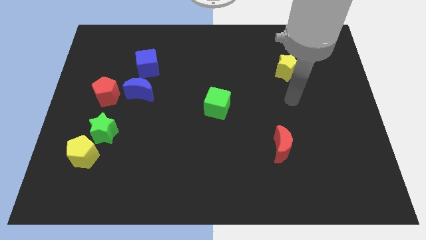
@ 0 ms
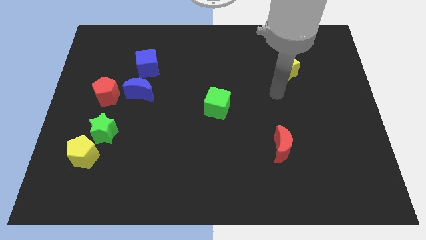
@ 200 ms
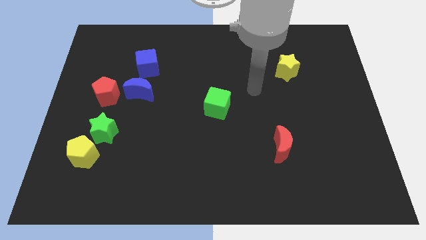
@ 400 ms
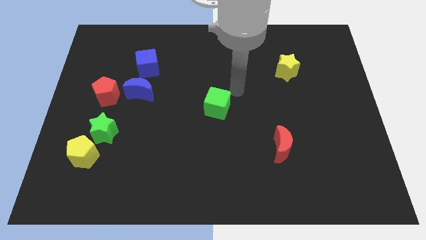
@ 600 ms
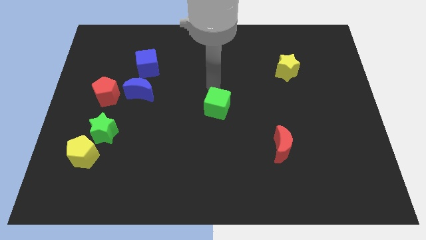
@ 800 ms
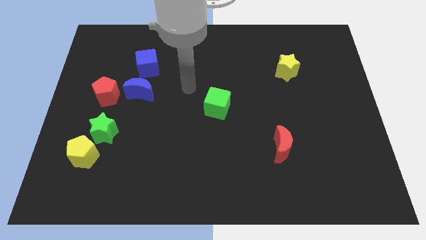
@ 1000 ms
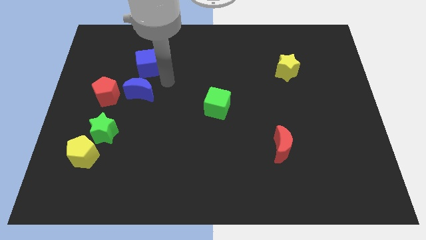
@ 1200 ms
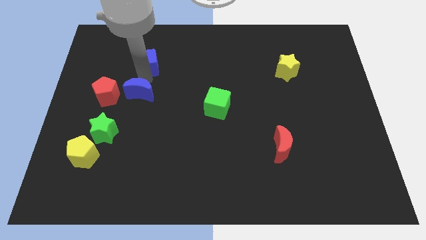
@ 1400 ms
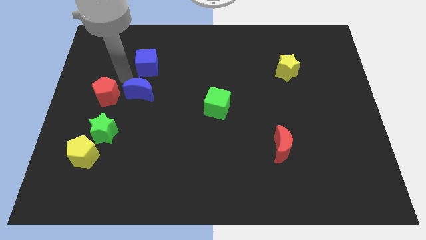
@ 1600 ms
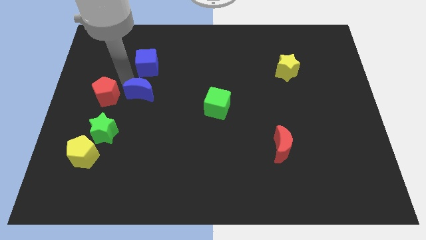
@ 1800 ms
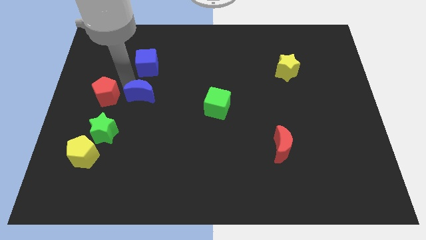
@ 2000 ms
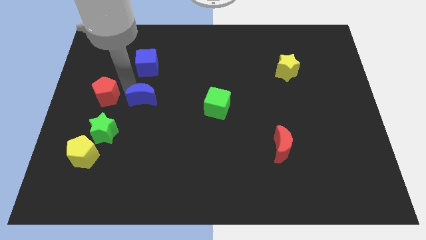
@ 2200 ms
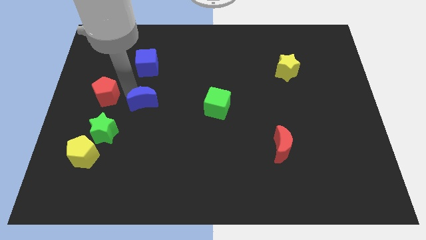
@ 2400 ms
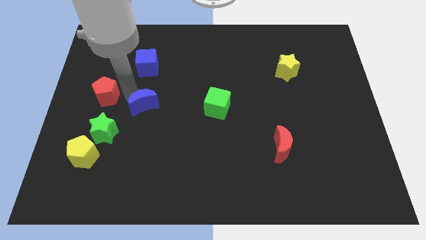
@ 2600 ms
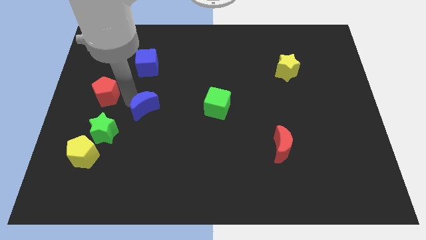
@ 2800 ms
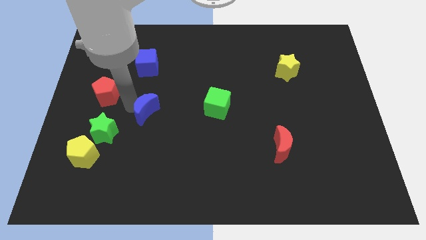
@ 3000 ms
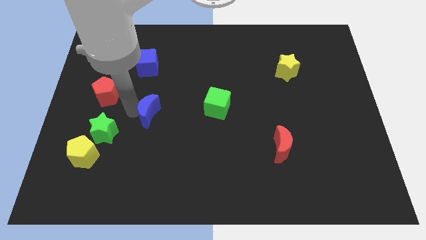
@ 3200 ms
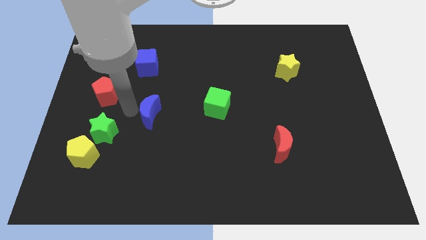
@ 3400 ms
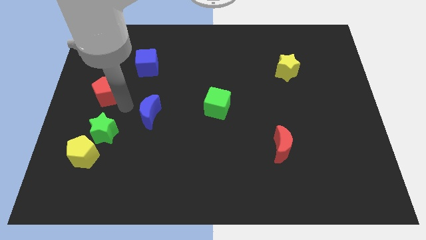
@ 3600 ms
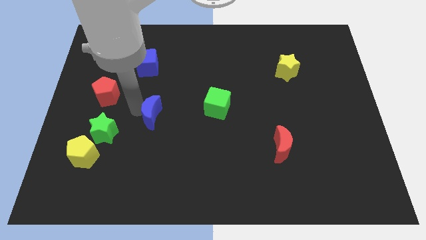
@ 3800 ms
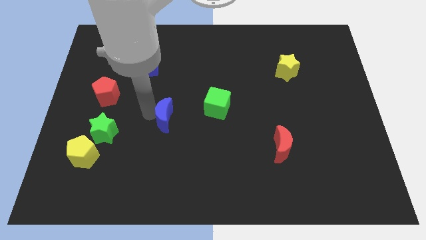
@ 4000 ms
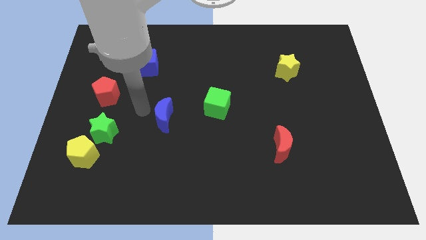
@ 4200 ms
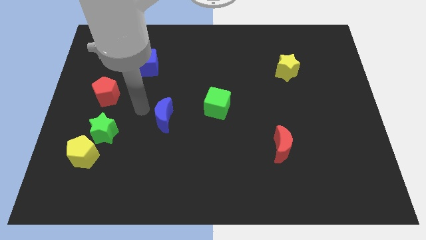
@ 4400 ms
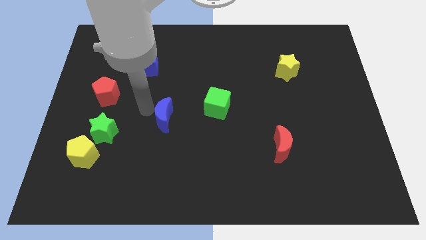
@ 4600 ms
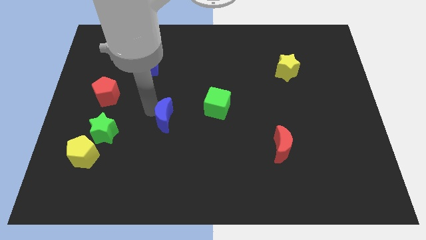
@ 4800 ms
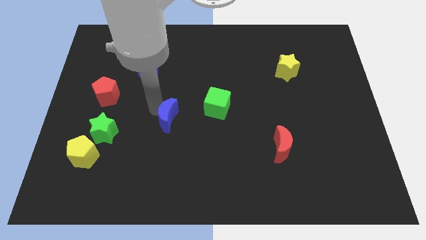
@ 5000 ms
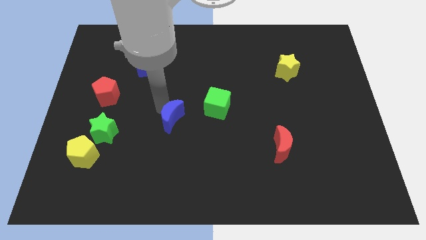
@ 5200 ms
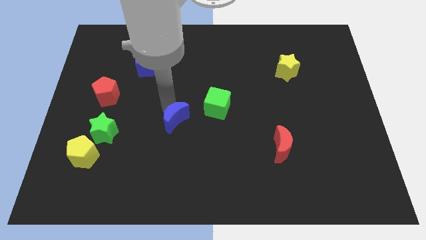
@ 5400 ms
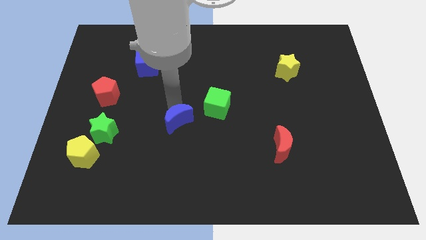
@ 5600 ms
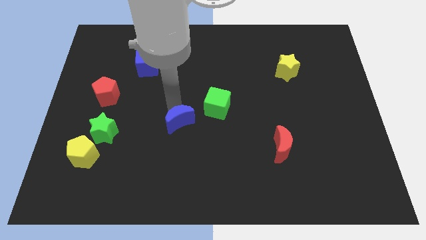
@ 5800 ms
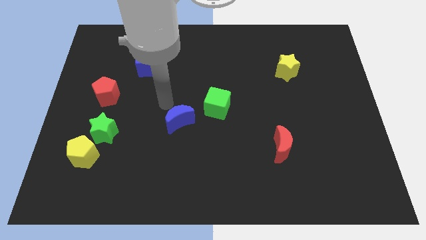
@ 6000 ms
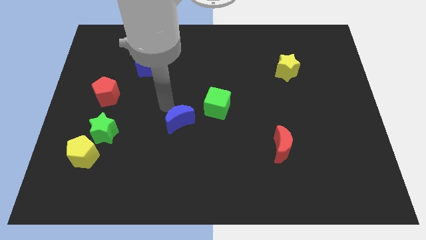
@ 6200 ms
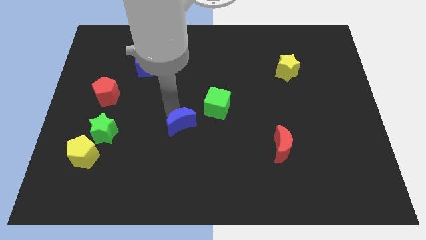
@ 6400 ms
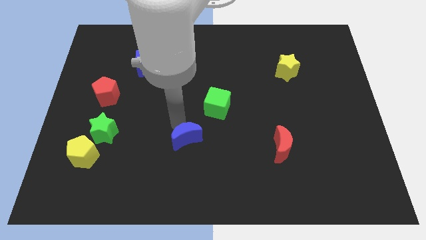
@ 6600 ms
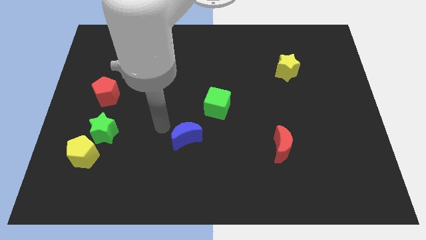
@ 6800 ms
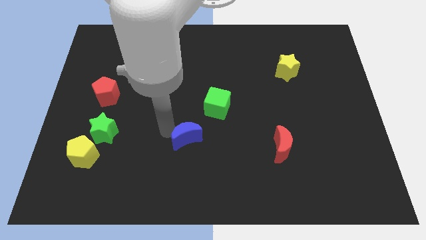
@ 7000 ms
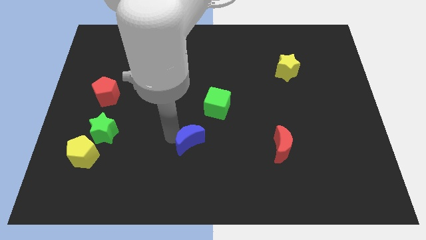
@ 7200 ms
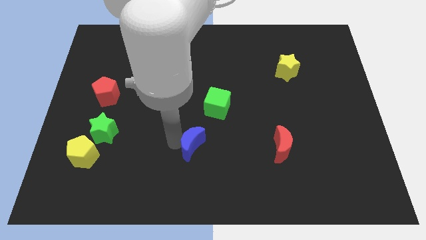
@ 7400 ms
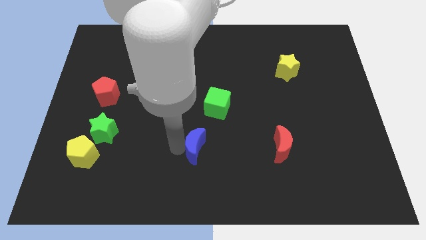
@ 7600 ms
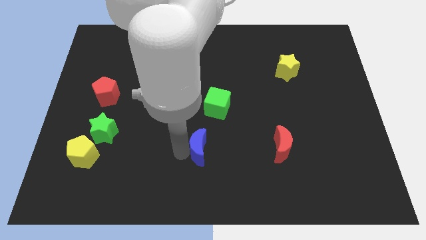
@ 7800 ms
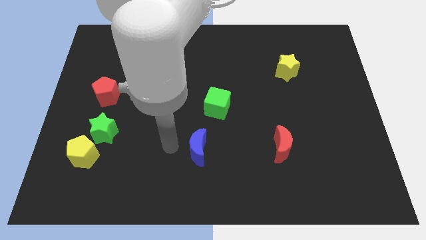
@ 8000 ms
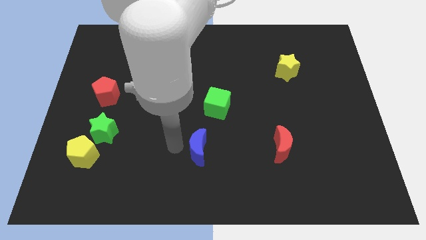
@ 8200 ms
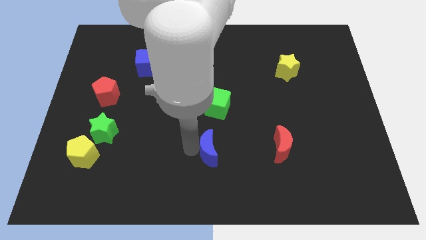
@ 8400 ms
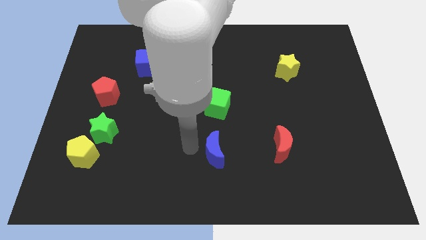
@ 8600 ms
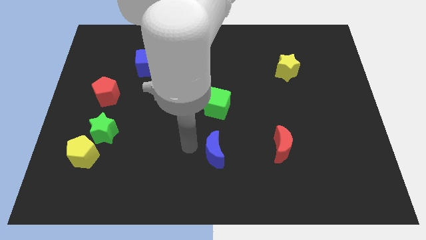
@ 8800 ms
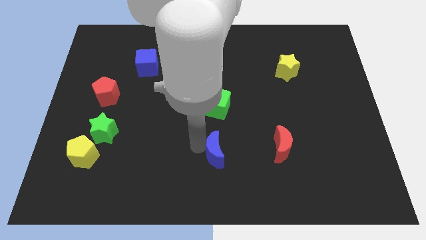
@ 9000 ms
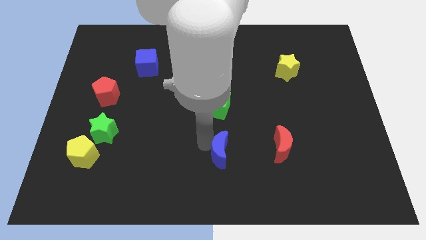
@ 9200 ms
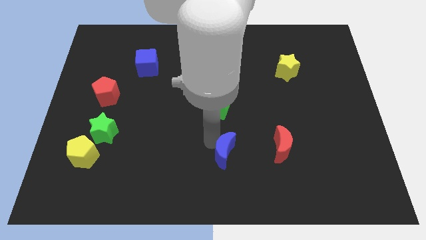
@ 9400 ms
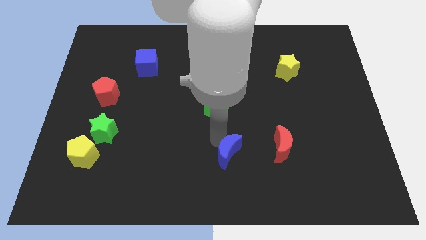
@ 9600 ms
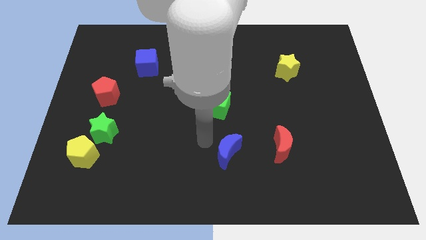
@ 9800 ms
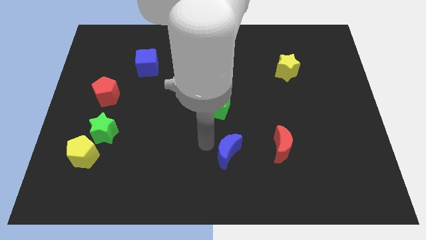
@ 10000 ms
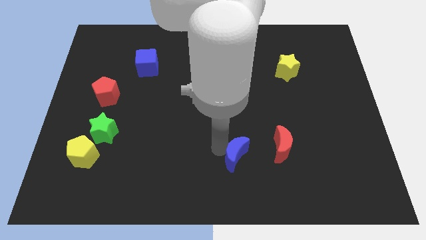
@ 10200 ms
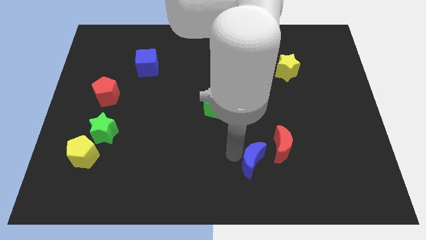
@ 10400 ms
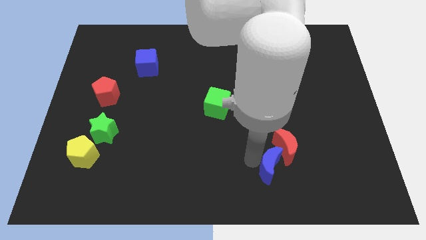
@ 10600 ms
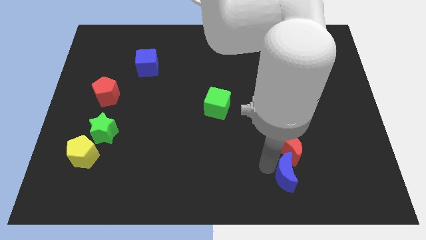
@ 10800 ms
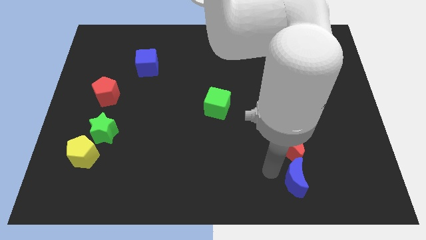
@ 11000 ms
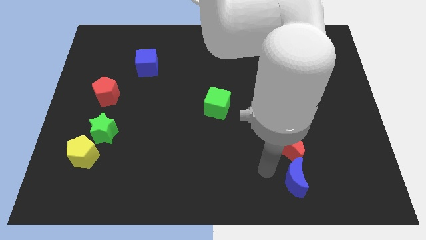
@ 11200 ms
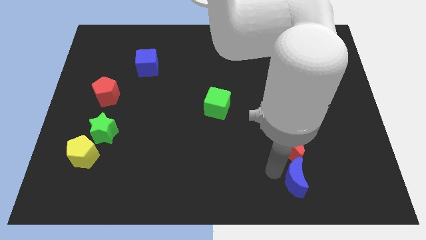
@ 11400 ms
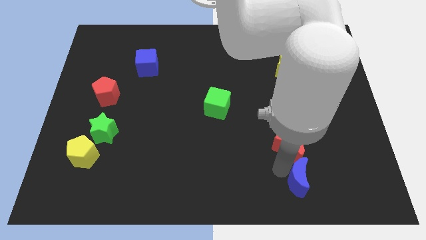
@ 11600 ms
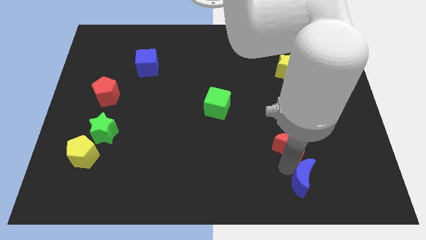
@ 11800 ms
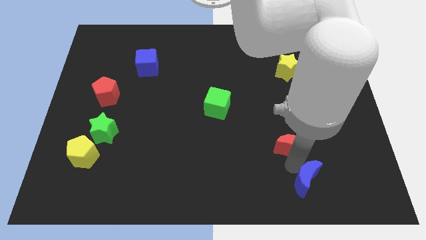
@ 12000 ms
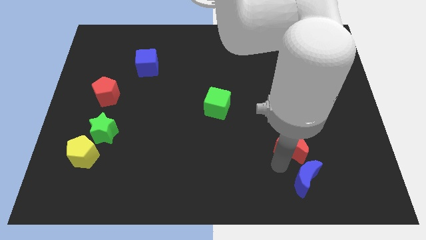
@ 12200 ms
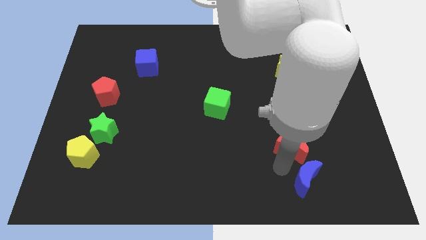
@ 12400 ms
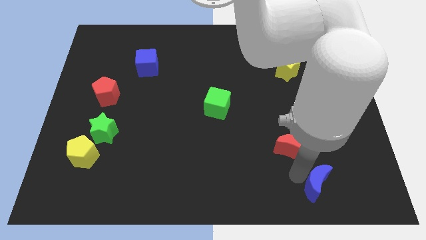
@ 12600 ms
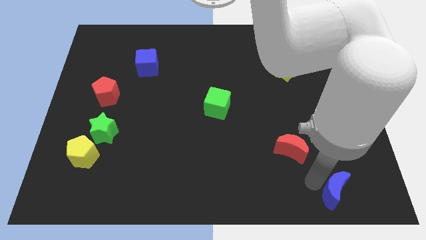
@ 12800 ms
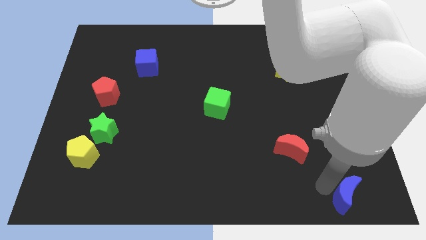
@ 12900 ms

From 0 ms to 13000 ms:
move the blue moon to the lower right corner

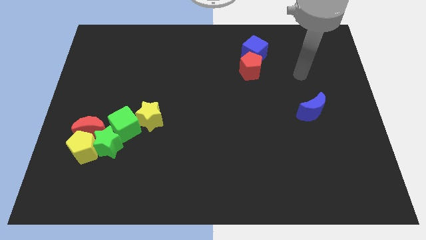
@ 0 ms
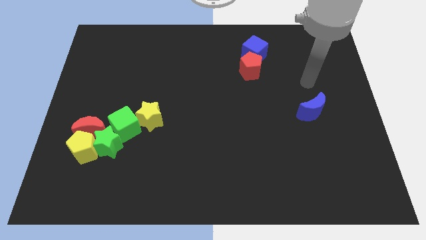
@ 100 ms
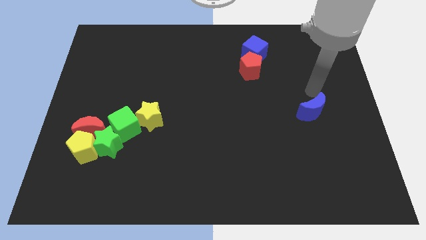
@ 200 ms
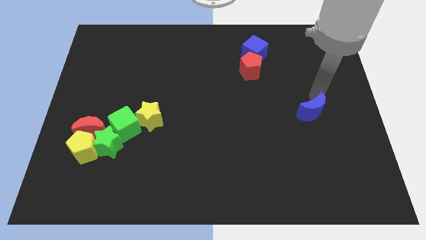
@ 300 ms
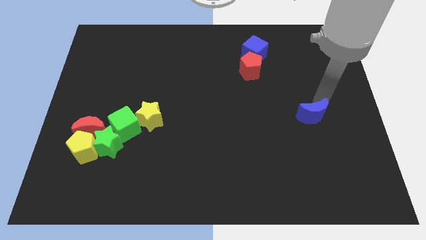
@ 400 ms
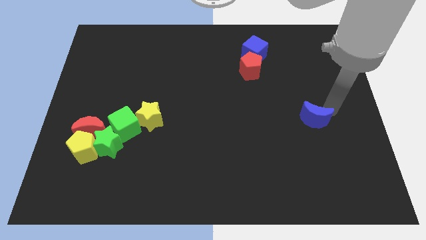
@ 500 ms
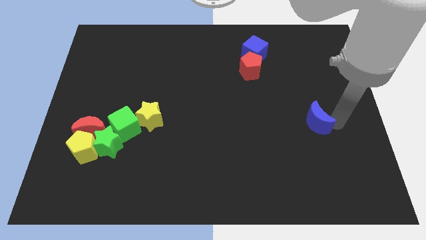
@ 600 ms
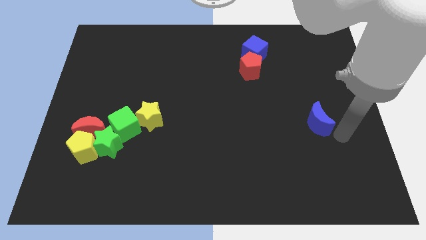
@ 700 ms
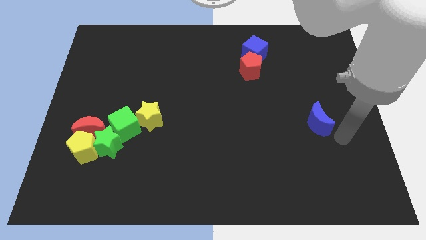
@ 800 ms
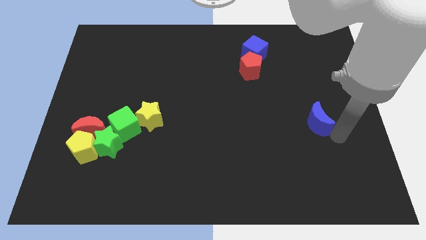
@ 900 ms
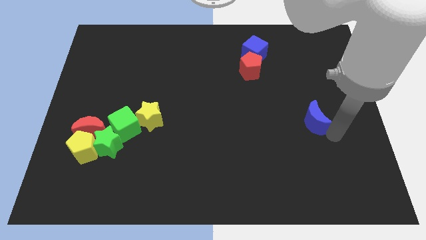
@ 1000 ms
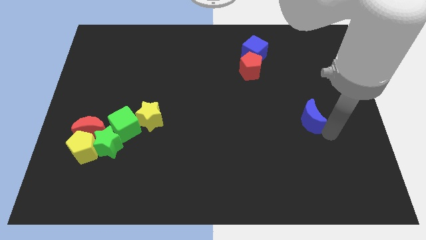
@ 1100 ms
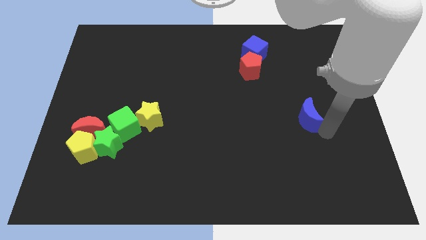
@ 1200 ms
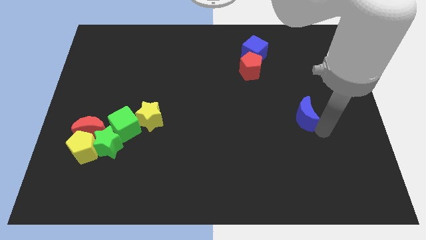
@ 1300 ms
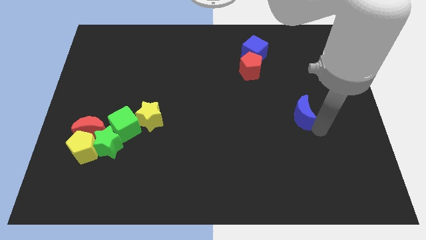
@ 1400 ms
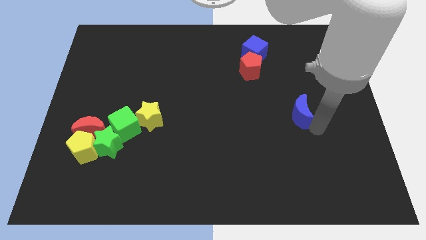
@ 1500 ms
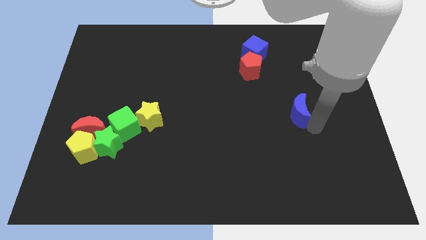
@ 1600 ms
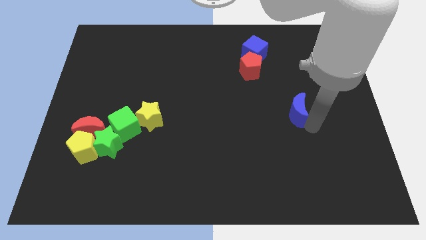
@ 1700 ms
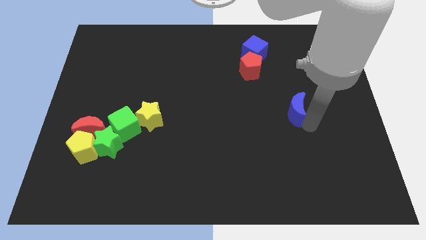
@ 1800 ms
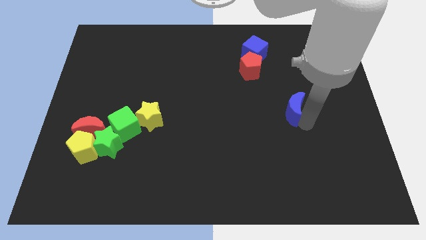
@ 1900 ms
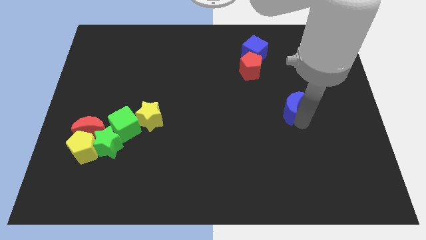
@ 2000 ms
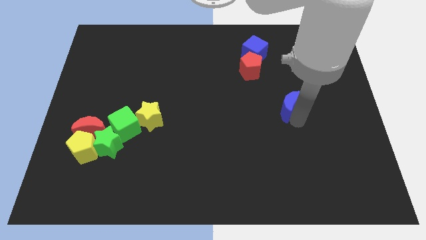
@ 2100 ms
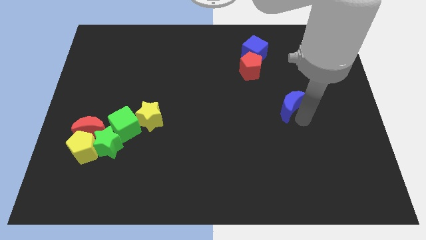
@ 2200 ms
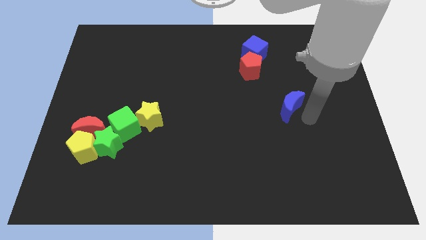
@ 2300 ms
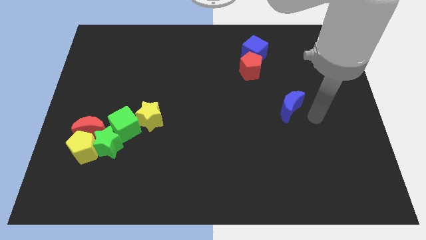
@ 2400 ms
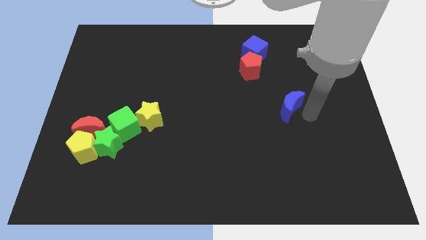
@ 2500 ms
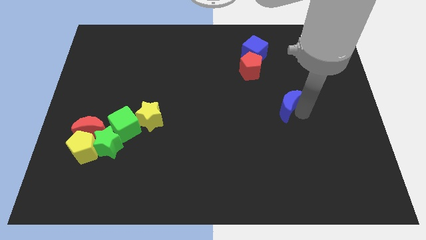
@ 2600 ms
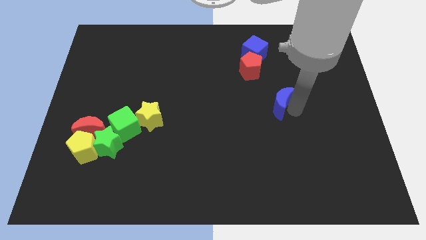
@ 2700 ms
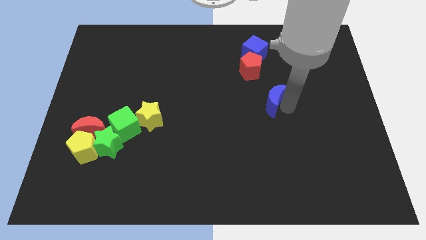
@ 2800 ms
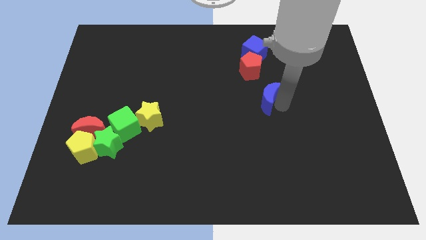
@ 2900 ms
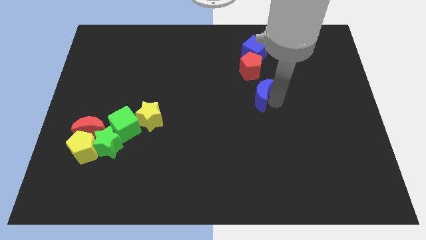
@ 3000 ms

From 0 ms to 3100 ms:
put the blue moon to the middle
